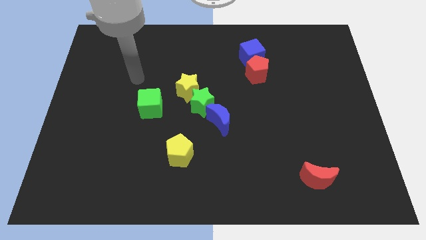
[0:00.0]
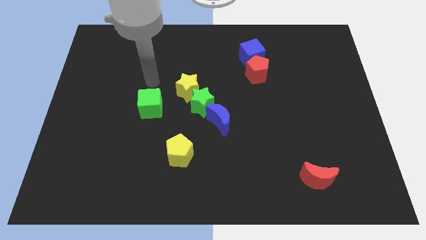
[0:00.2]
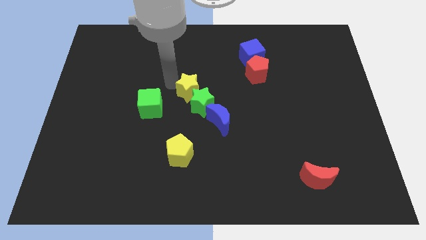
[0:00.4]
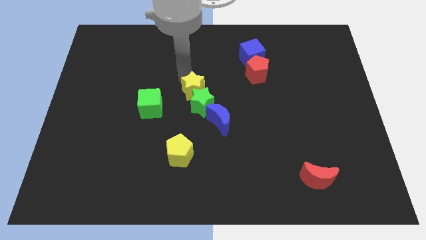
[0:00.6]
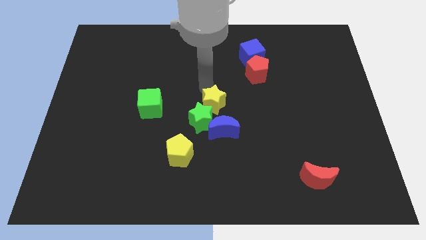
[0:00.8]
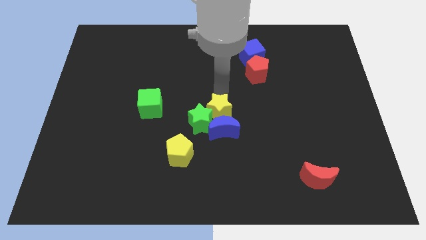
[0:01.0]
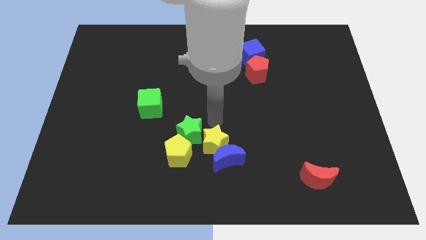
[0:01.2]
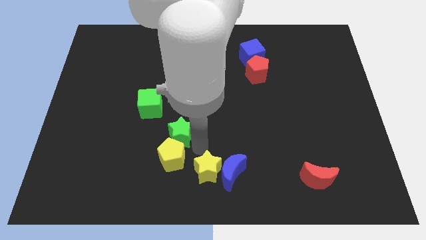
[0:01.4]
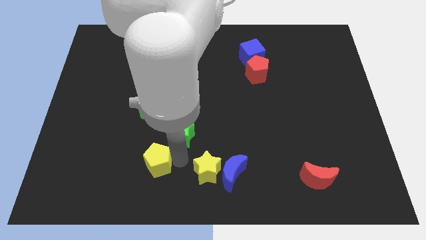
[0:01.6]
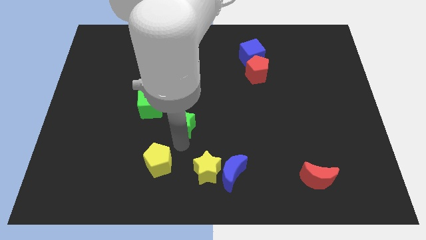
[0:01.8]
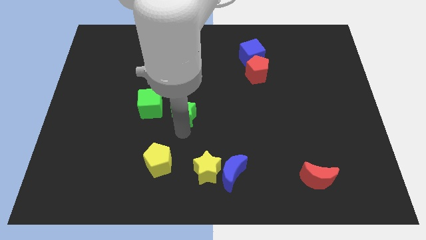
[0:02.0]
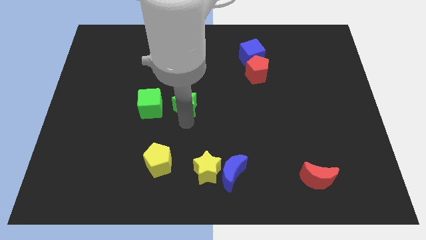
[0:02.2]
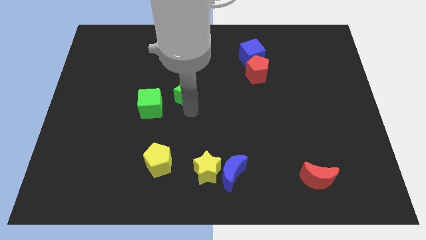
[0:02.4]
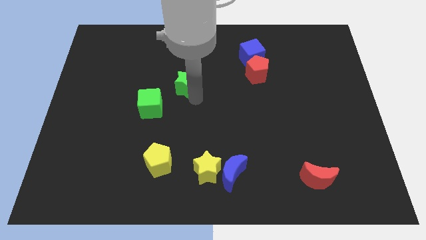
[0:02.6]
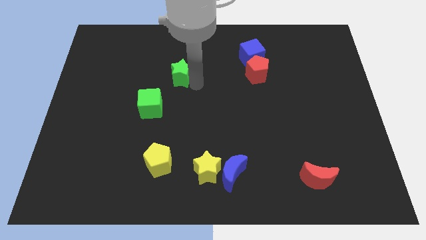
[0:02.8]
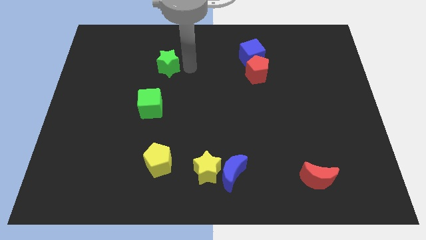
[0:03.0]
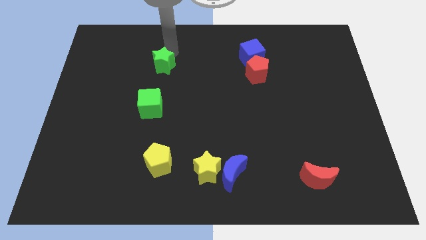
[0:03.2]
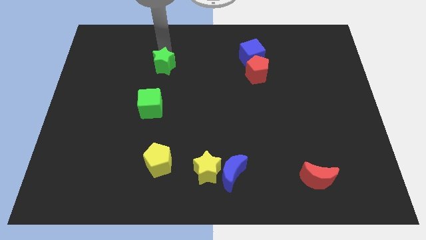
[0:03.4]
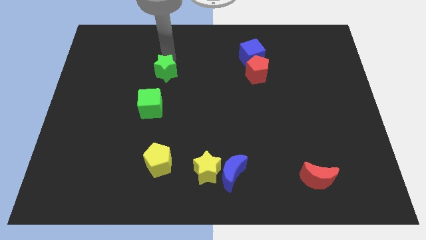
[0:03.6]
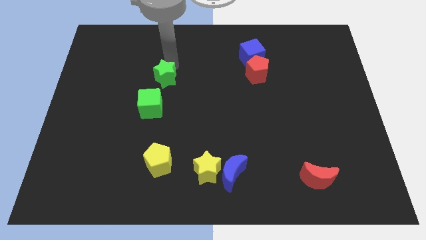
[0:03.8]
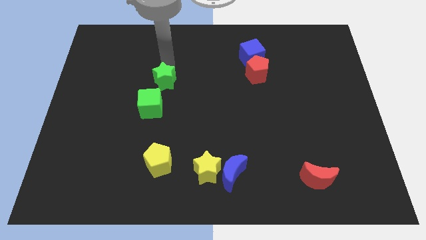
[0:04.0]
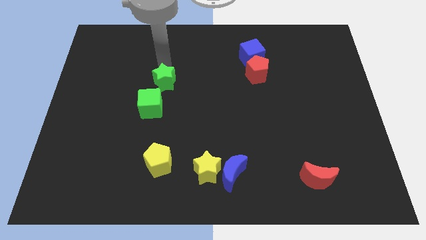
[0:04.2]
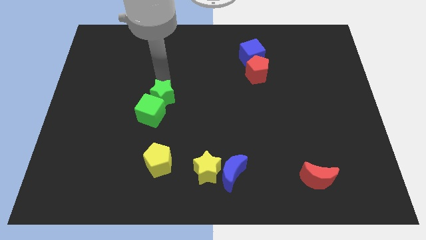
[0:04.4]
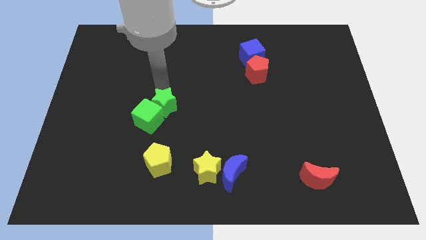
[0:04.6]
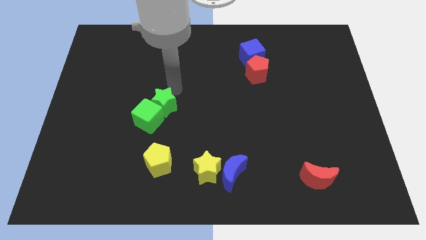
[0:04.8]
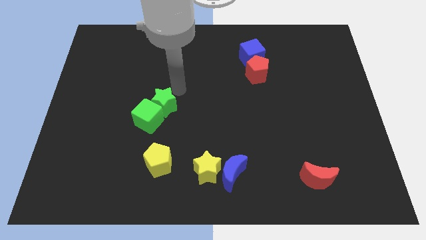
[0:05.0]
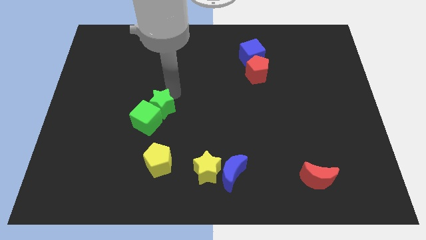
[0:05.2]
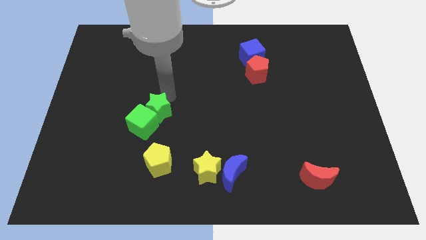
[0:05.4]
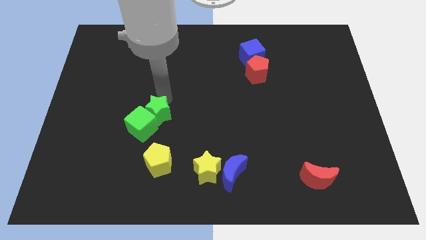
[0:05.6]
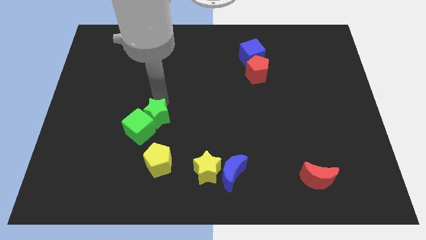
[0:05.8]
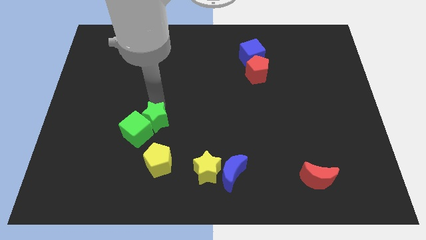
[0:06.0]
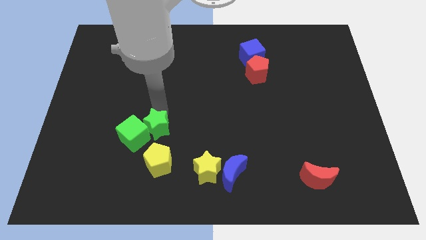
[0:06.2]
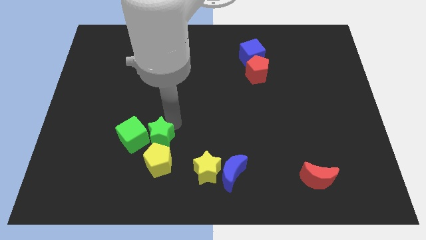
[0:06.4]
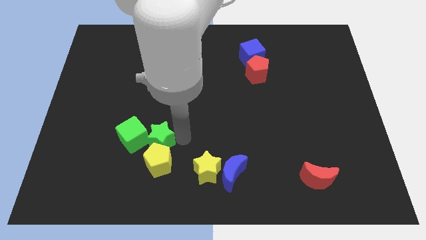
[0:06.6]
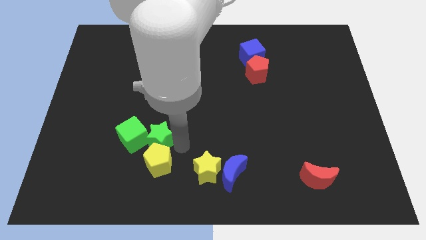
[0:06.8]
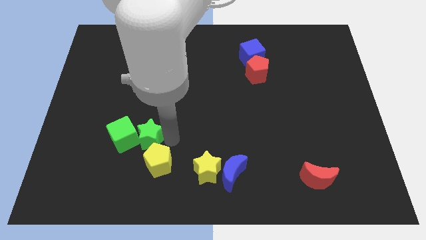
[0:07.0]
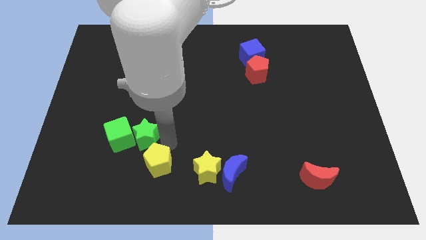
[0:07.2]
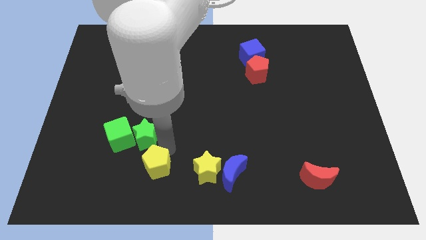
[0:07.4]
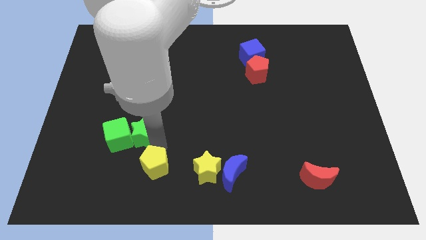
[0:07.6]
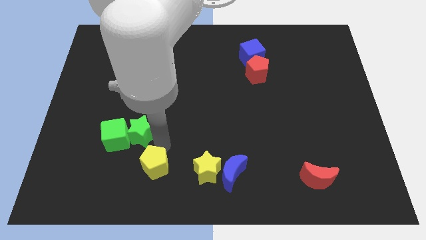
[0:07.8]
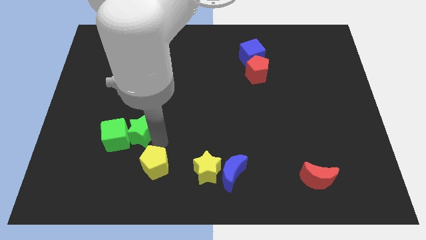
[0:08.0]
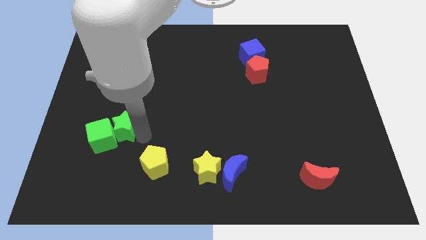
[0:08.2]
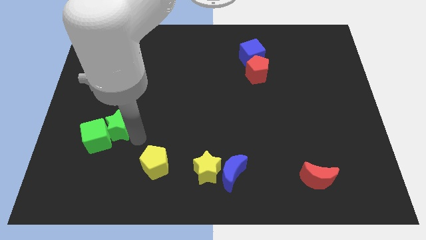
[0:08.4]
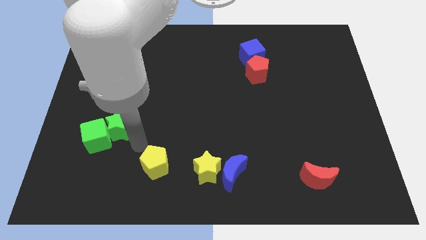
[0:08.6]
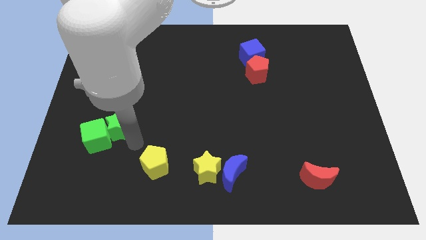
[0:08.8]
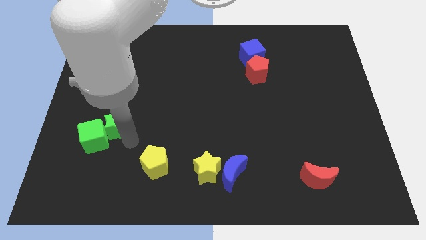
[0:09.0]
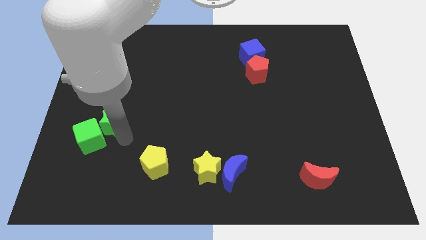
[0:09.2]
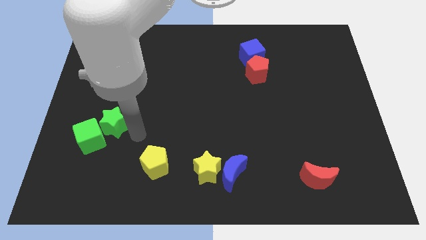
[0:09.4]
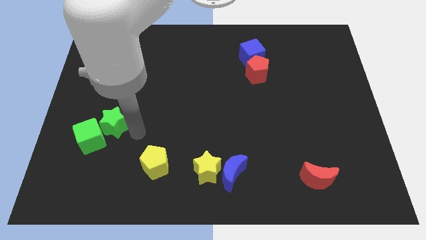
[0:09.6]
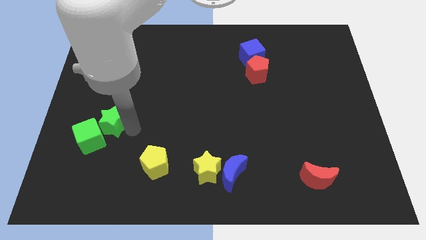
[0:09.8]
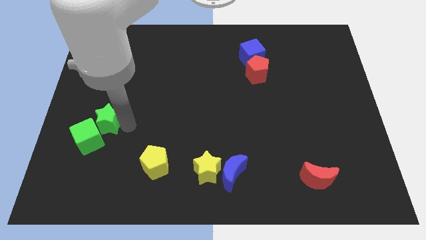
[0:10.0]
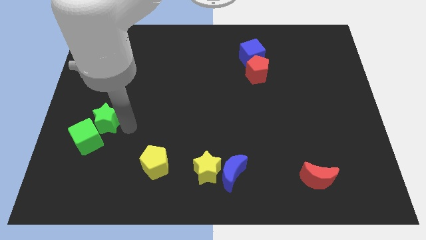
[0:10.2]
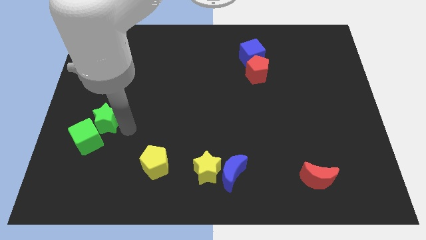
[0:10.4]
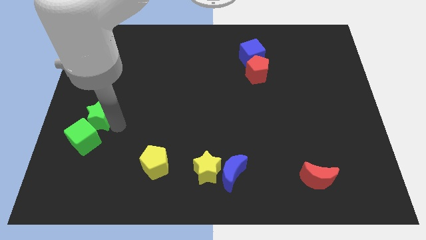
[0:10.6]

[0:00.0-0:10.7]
push the green star to the left side of the board

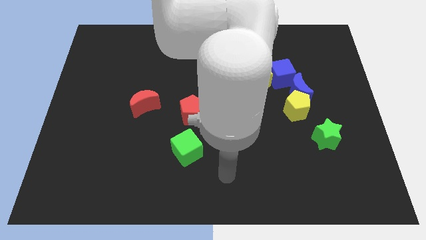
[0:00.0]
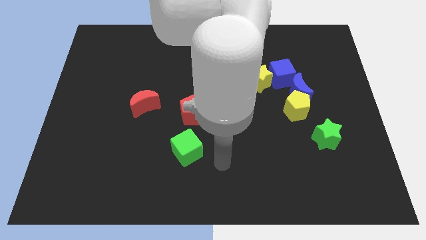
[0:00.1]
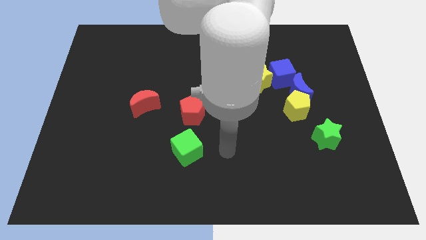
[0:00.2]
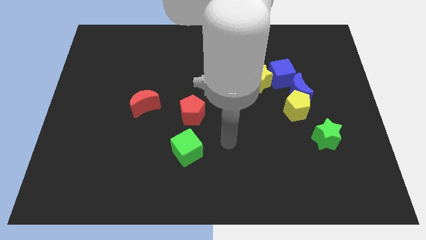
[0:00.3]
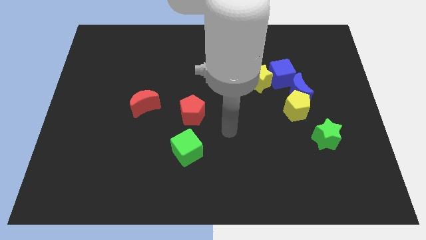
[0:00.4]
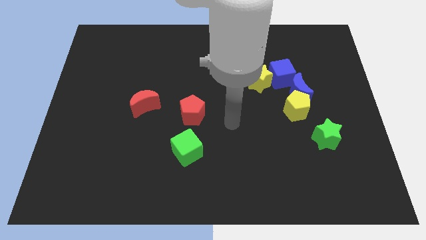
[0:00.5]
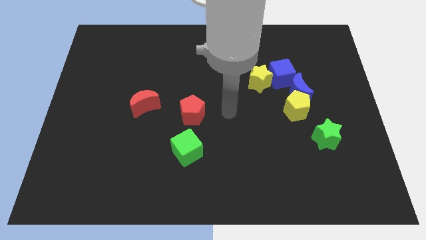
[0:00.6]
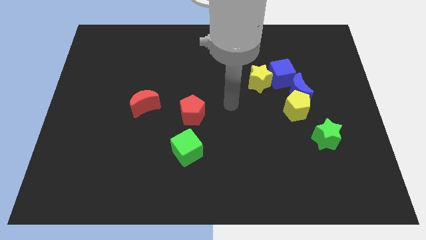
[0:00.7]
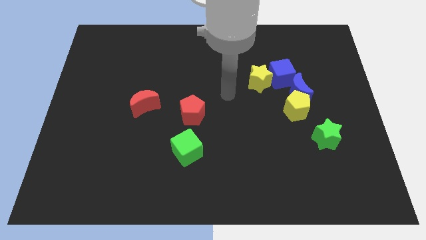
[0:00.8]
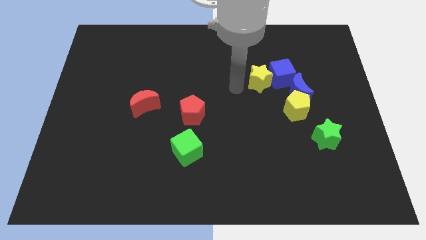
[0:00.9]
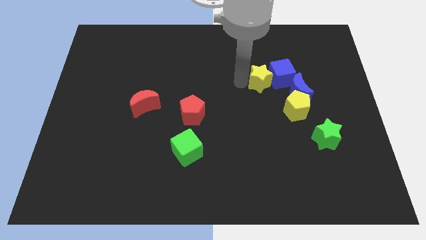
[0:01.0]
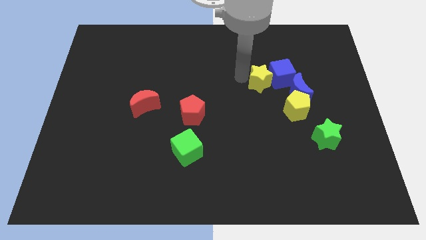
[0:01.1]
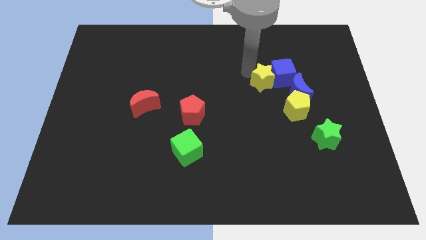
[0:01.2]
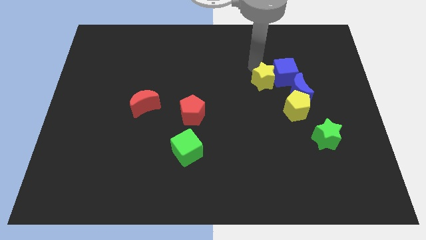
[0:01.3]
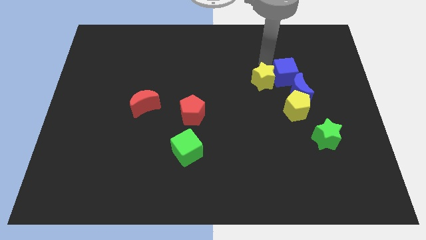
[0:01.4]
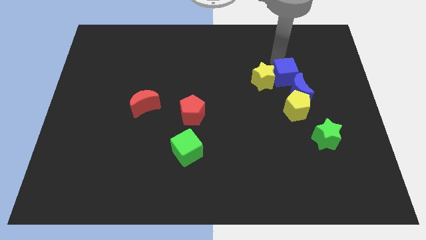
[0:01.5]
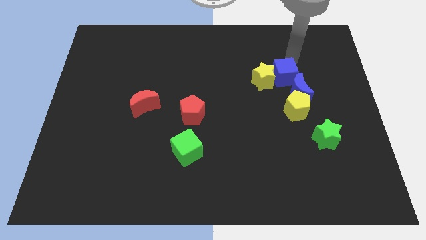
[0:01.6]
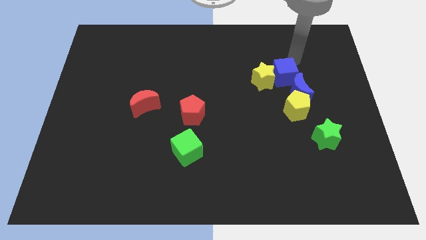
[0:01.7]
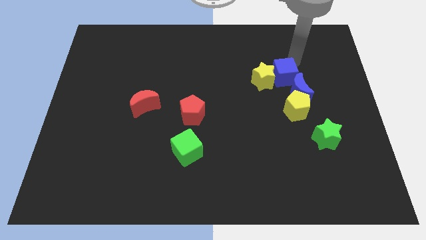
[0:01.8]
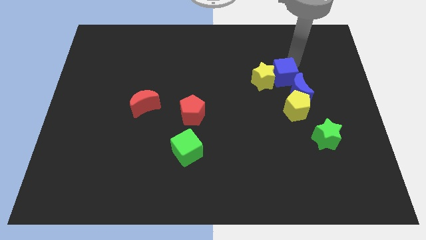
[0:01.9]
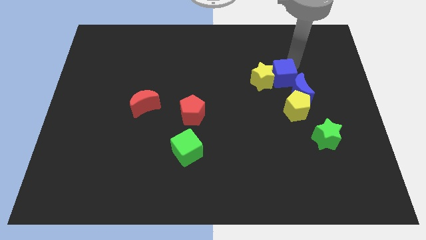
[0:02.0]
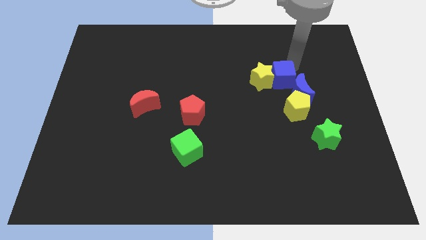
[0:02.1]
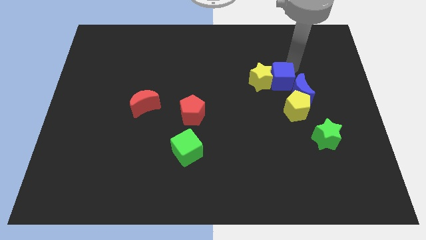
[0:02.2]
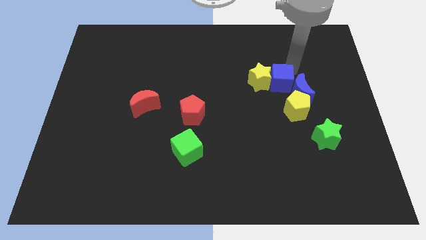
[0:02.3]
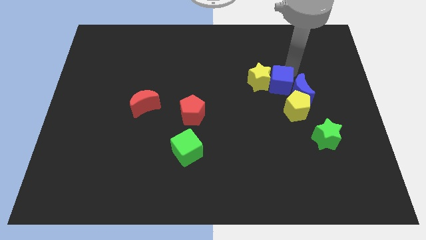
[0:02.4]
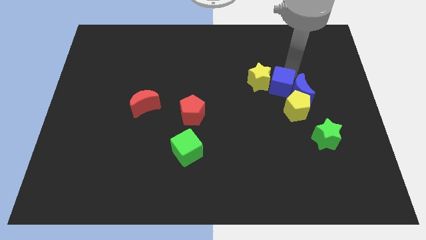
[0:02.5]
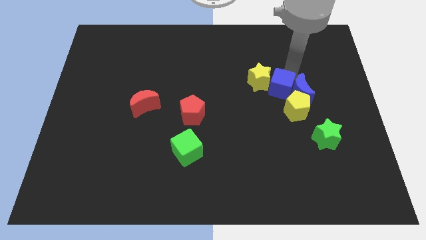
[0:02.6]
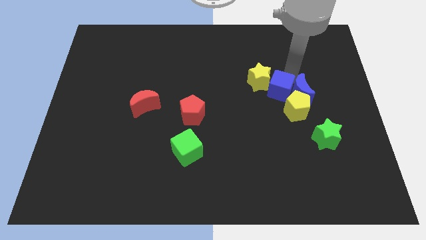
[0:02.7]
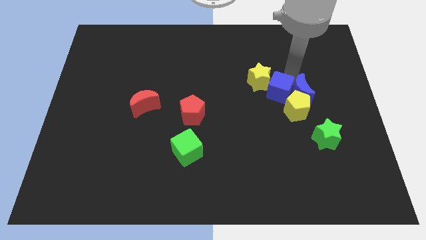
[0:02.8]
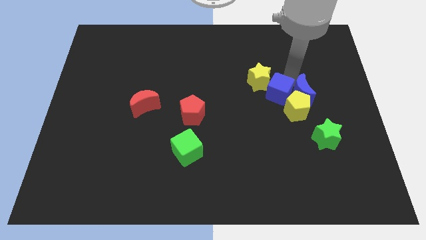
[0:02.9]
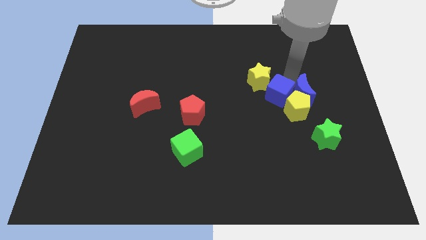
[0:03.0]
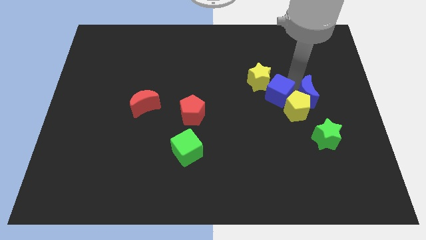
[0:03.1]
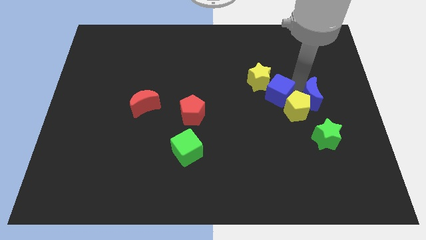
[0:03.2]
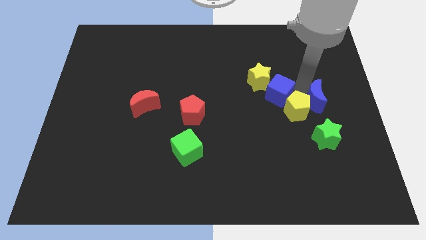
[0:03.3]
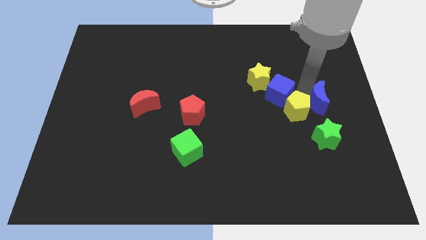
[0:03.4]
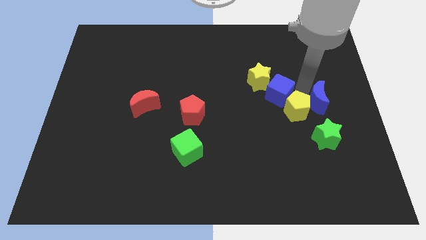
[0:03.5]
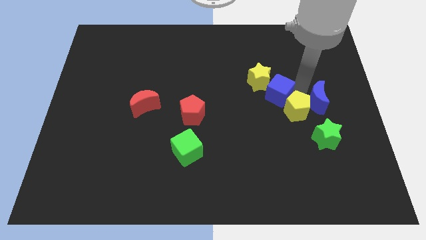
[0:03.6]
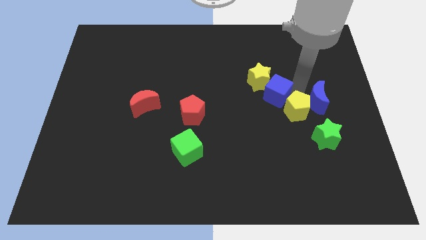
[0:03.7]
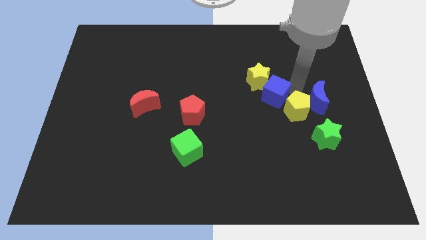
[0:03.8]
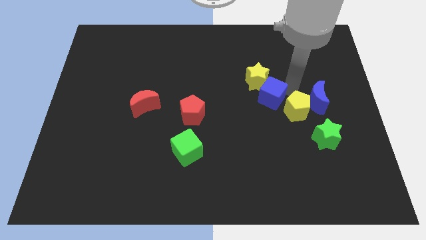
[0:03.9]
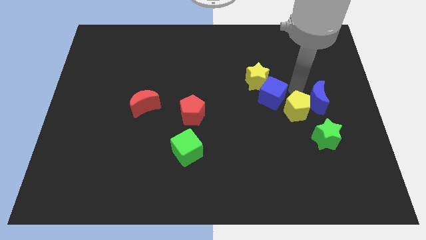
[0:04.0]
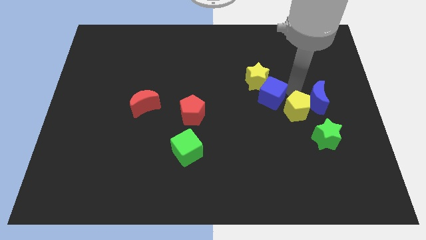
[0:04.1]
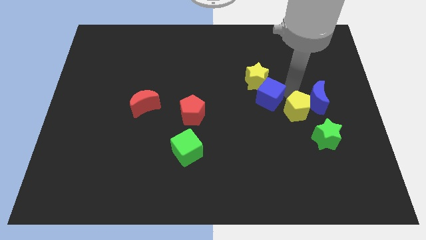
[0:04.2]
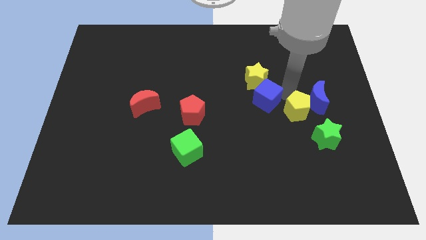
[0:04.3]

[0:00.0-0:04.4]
put the blue cube to the middle
